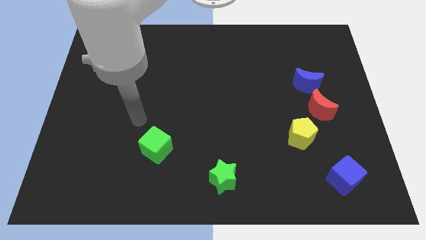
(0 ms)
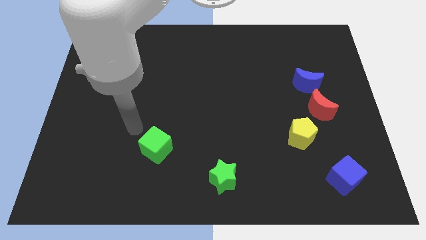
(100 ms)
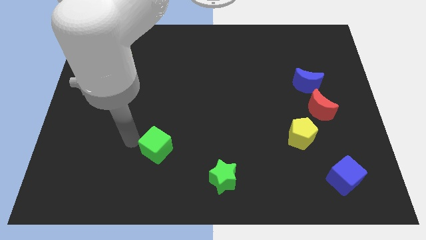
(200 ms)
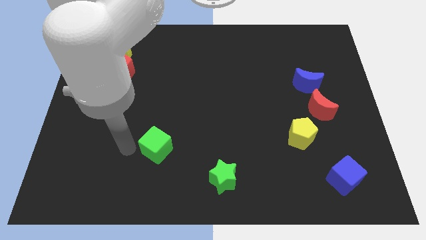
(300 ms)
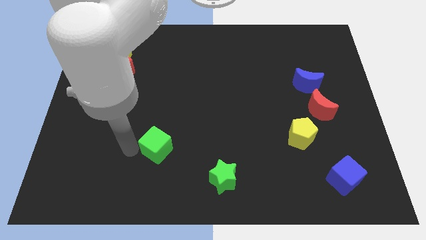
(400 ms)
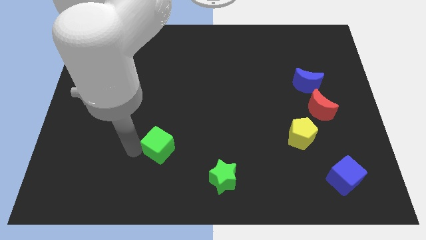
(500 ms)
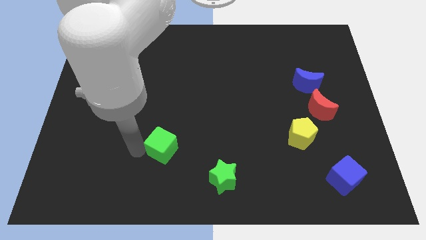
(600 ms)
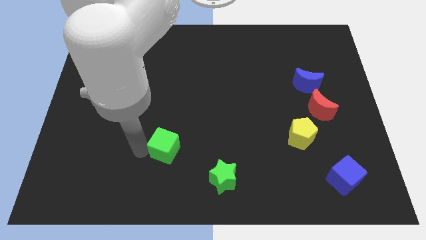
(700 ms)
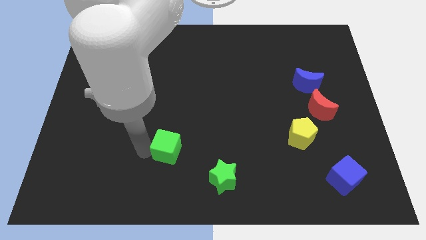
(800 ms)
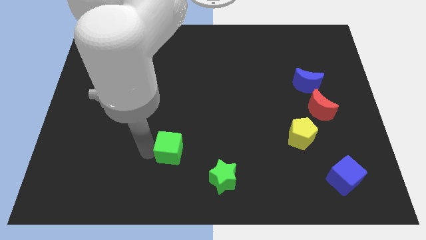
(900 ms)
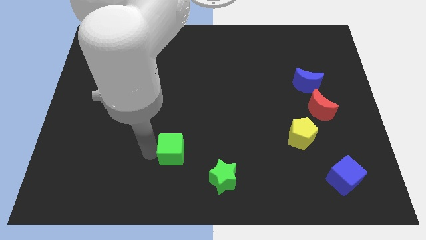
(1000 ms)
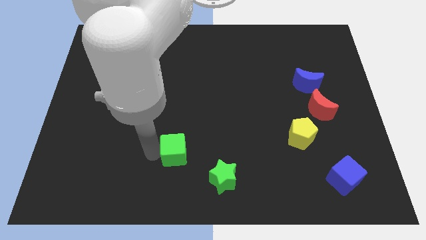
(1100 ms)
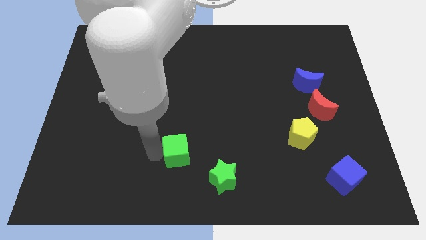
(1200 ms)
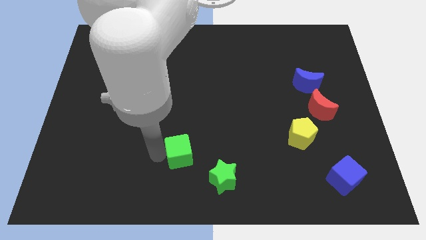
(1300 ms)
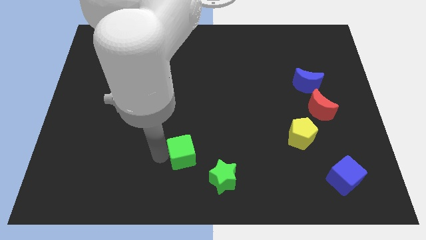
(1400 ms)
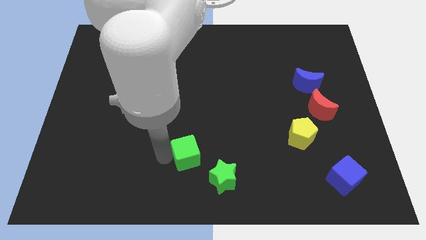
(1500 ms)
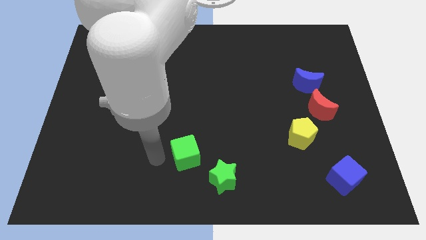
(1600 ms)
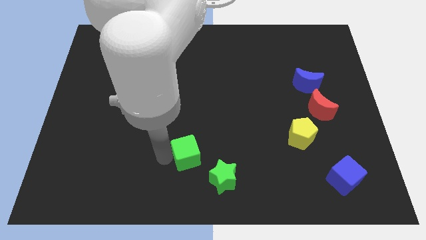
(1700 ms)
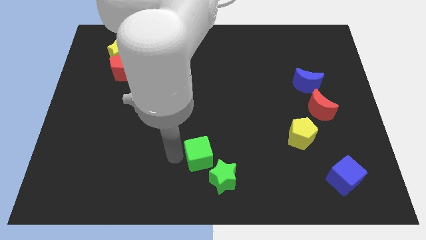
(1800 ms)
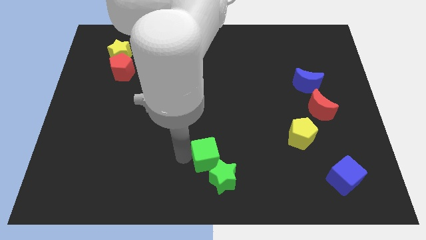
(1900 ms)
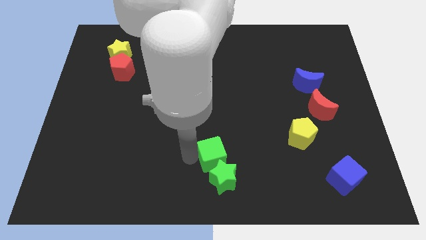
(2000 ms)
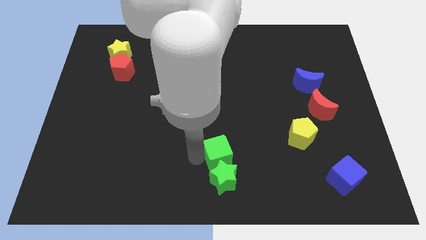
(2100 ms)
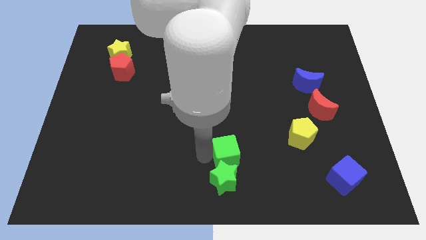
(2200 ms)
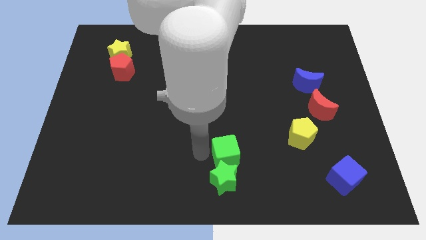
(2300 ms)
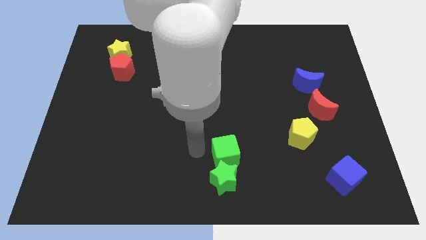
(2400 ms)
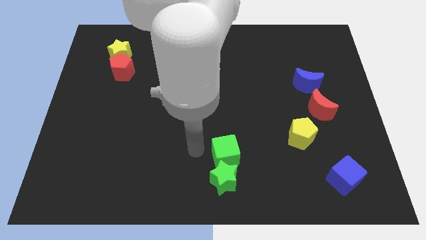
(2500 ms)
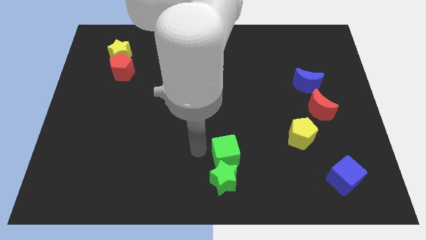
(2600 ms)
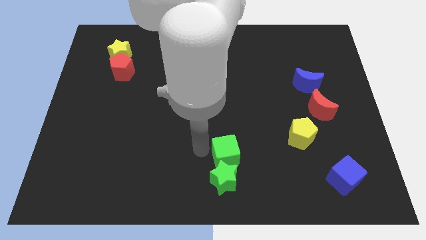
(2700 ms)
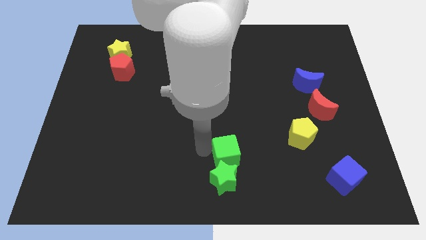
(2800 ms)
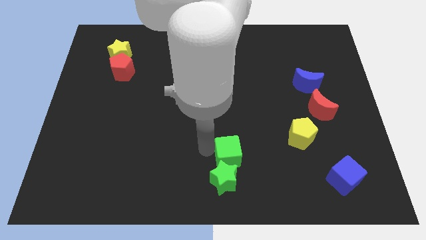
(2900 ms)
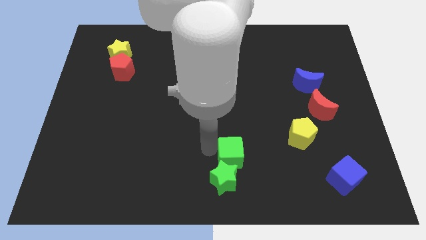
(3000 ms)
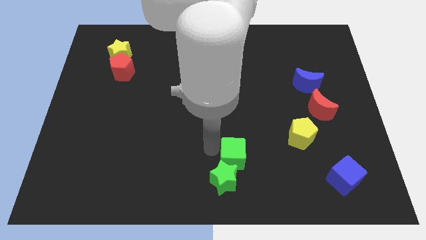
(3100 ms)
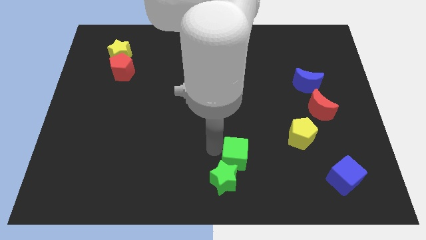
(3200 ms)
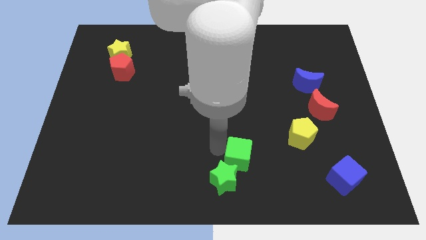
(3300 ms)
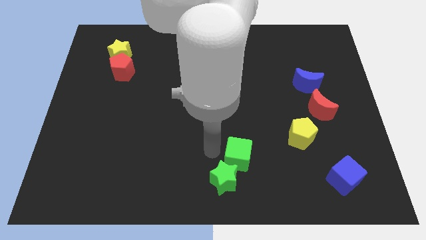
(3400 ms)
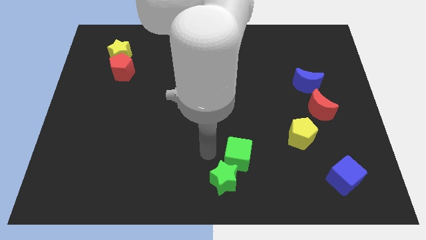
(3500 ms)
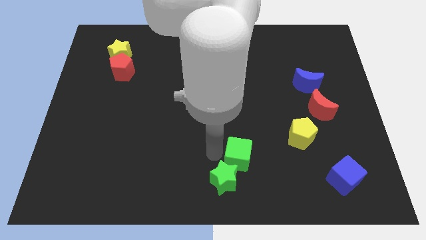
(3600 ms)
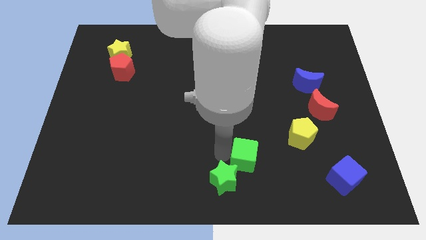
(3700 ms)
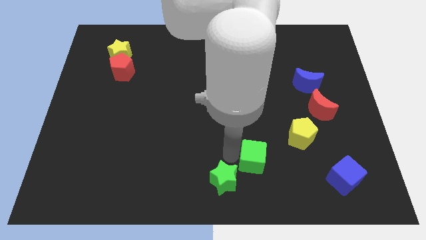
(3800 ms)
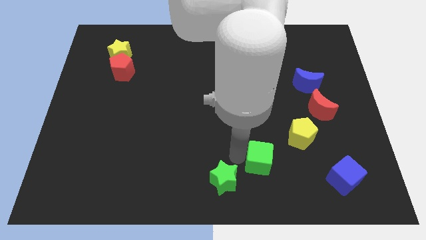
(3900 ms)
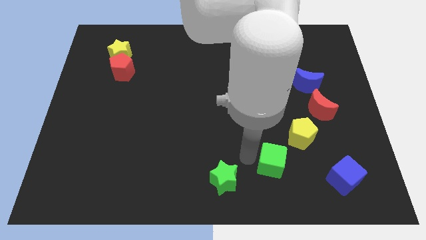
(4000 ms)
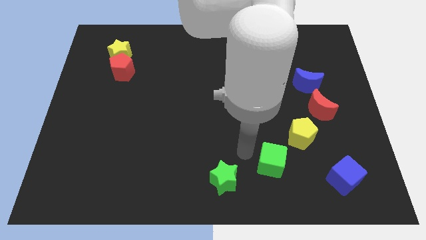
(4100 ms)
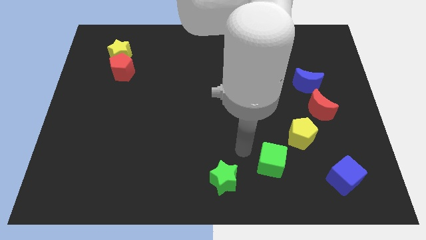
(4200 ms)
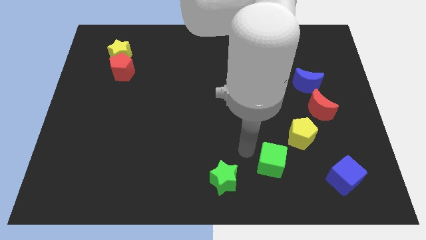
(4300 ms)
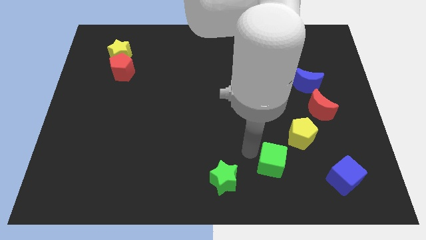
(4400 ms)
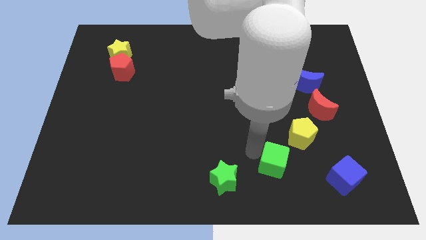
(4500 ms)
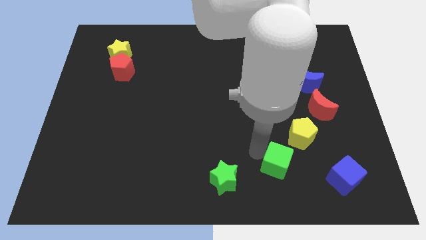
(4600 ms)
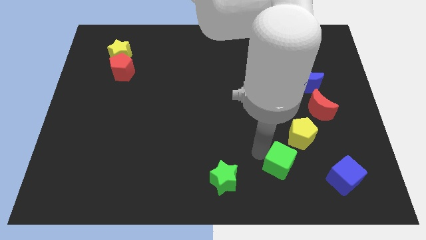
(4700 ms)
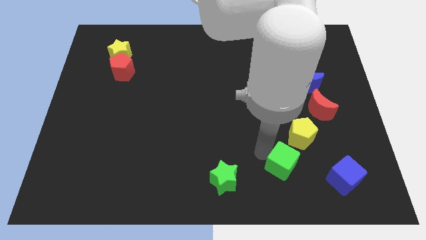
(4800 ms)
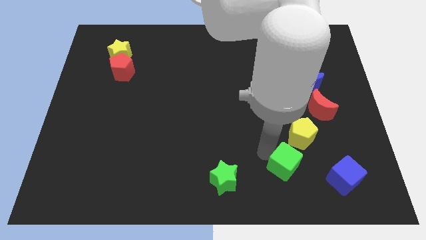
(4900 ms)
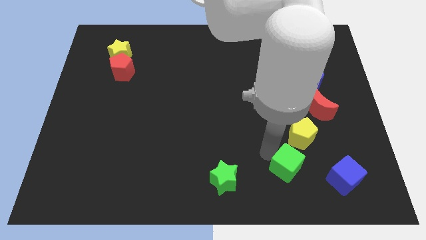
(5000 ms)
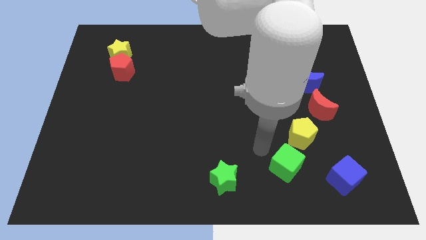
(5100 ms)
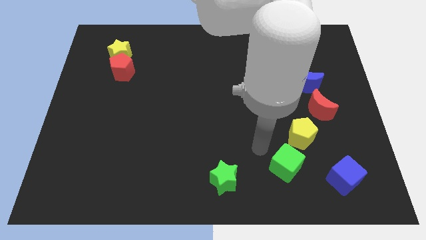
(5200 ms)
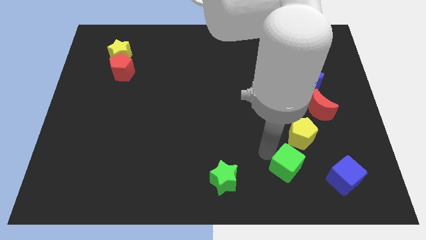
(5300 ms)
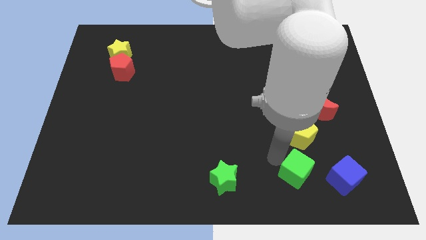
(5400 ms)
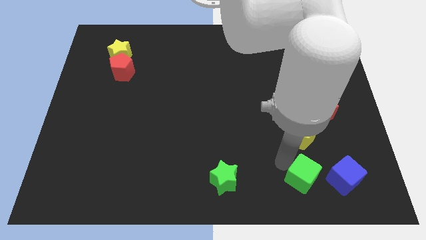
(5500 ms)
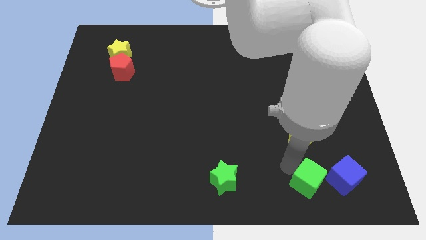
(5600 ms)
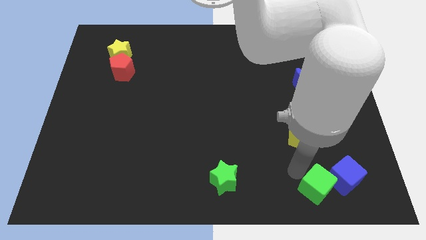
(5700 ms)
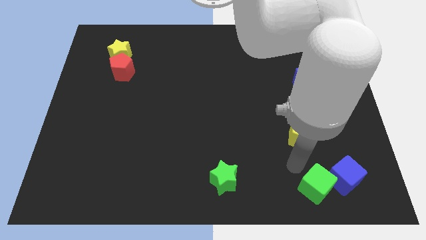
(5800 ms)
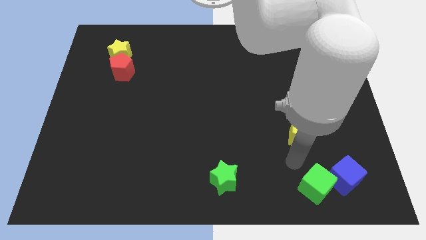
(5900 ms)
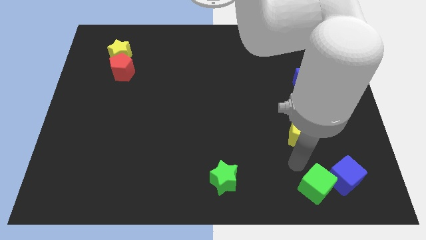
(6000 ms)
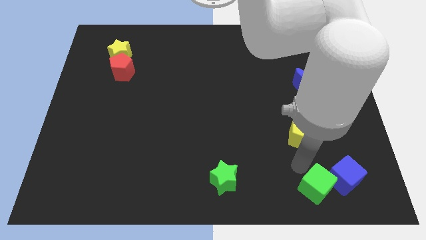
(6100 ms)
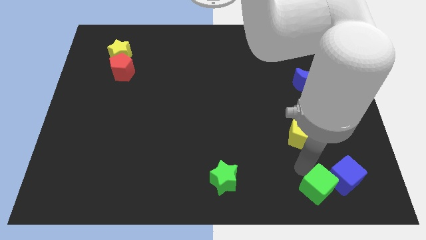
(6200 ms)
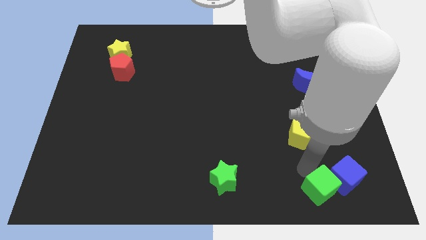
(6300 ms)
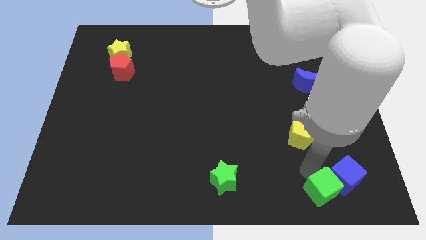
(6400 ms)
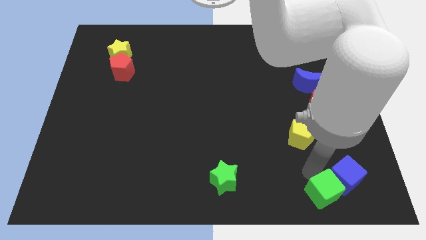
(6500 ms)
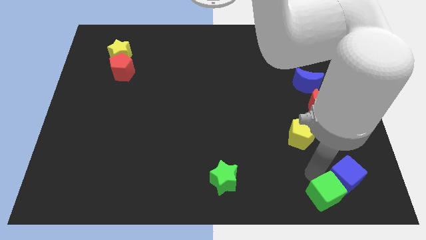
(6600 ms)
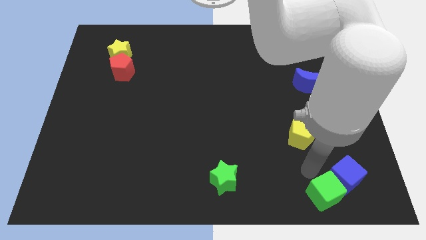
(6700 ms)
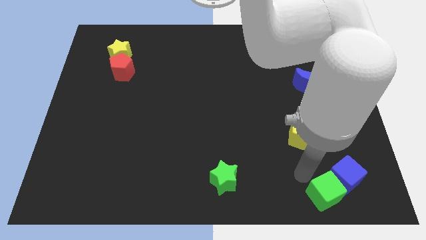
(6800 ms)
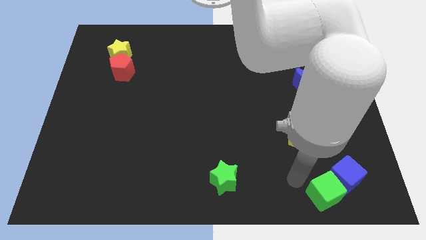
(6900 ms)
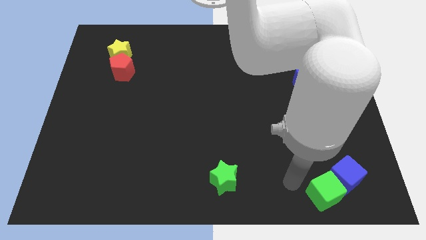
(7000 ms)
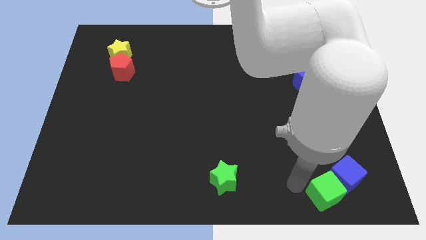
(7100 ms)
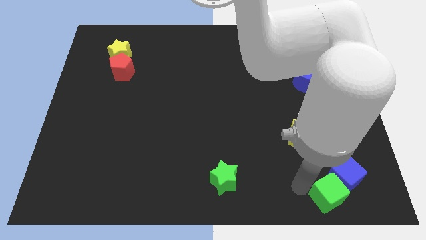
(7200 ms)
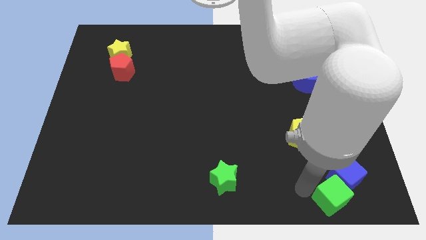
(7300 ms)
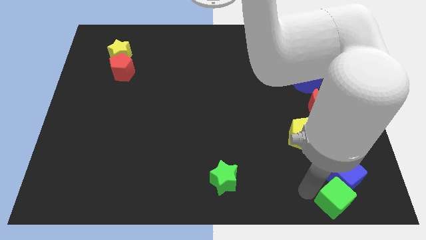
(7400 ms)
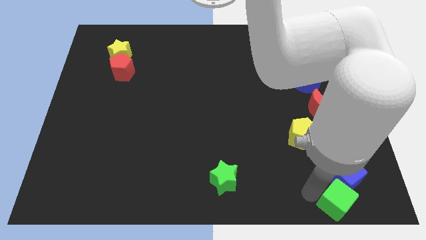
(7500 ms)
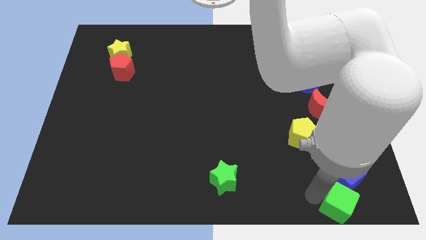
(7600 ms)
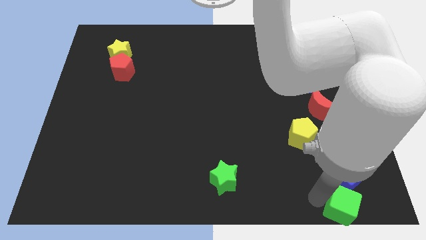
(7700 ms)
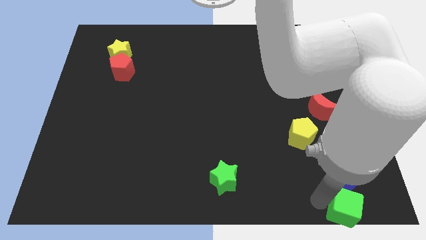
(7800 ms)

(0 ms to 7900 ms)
push the green cube to the bottom right of the board
